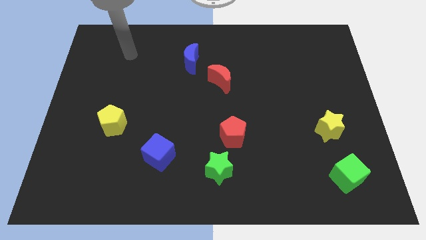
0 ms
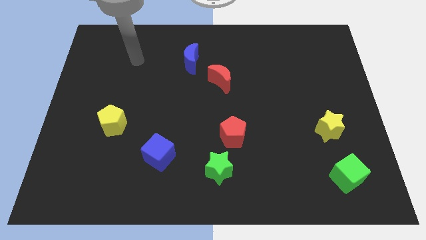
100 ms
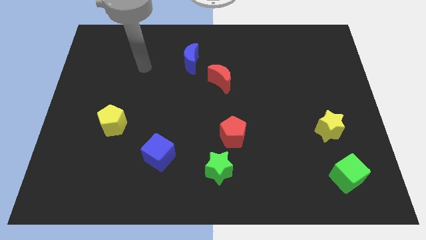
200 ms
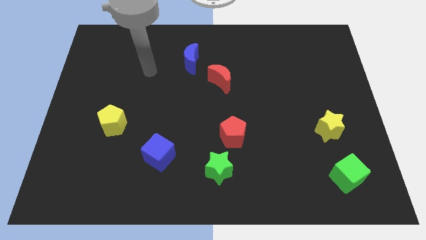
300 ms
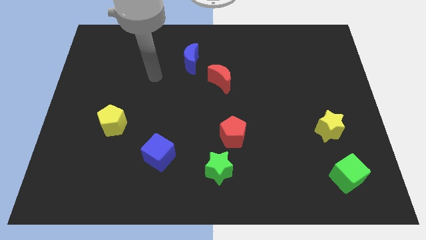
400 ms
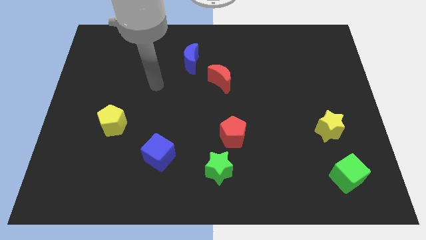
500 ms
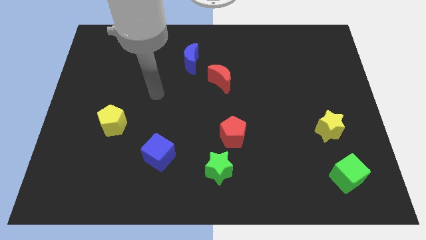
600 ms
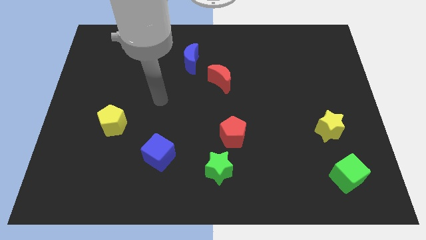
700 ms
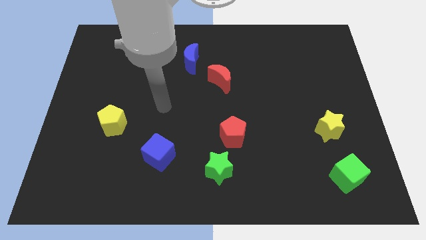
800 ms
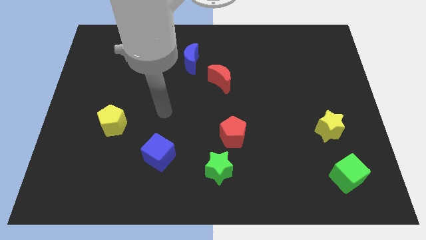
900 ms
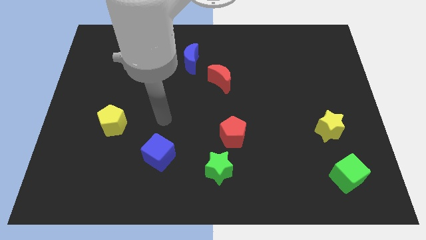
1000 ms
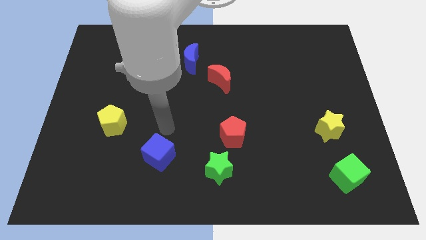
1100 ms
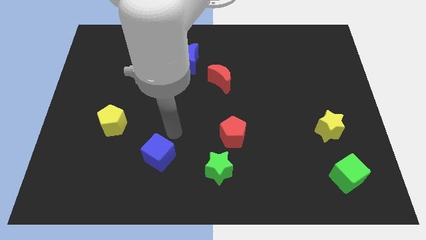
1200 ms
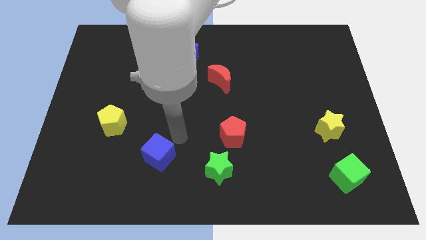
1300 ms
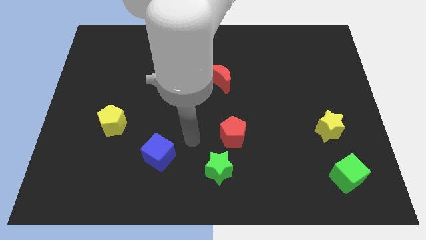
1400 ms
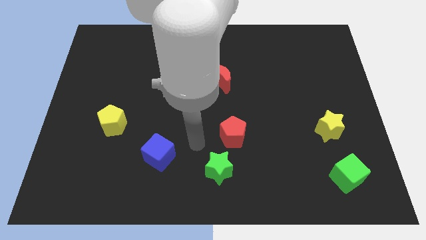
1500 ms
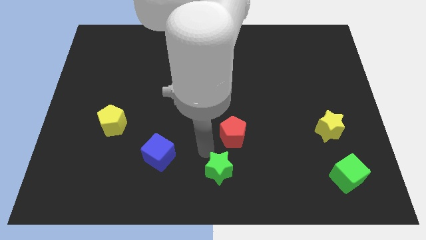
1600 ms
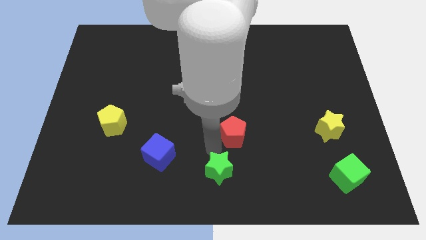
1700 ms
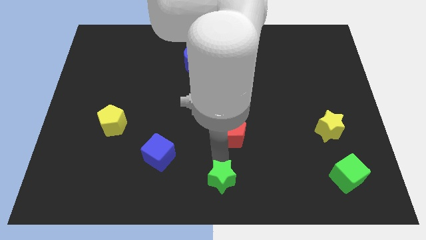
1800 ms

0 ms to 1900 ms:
move the red pentagon away from the green star

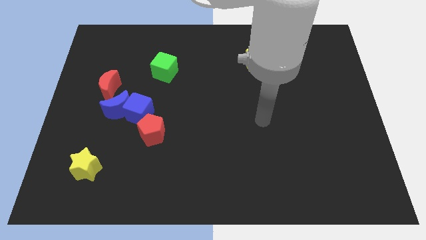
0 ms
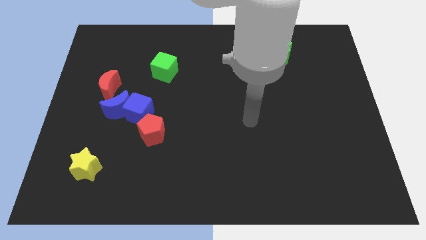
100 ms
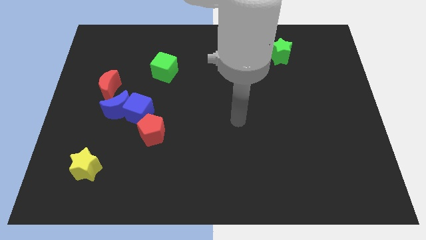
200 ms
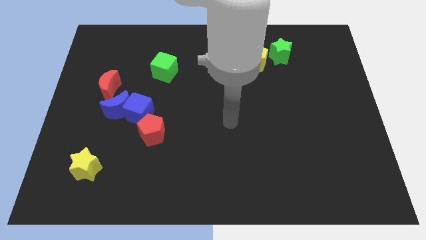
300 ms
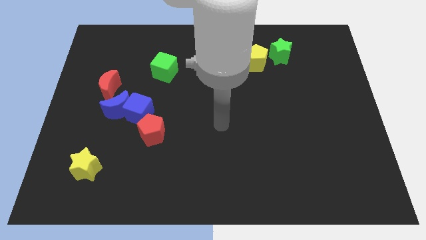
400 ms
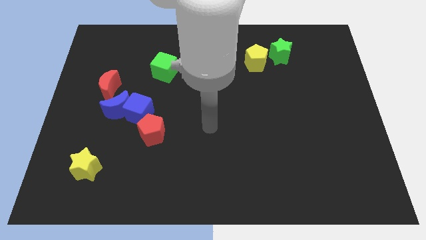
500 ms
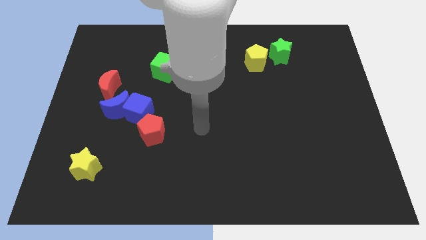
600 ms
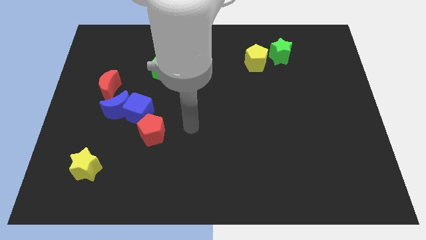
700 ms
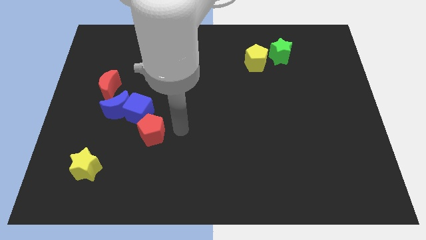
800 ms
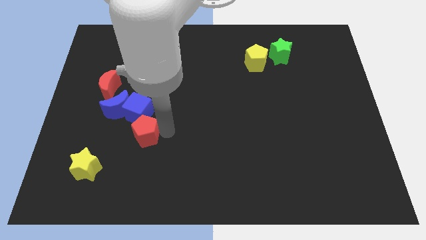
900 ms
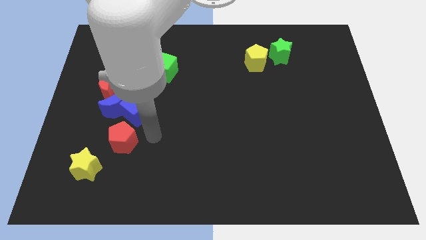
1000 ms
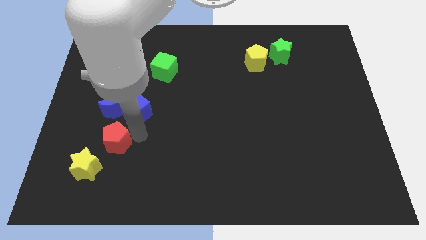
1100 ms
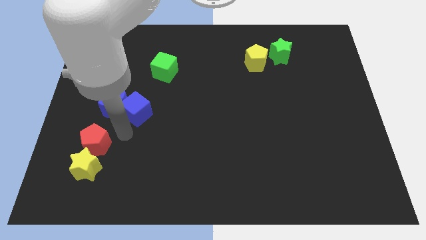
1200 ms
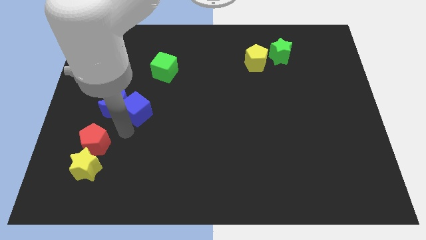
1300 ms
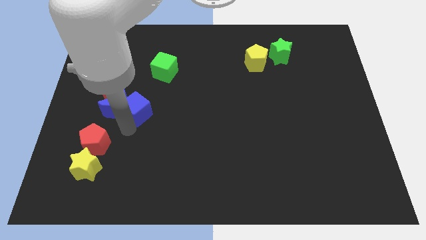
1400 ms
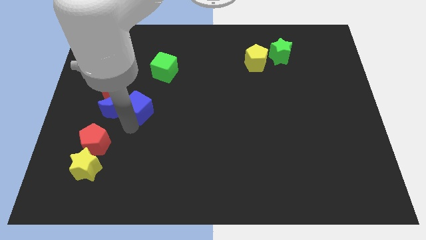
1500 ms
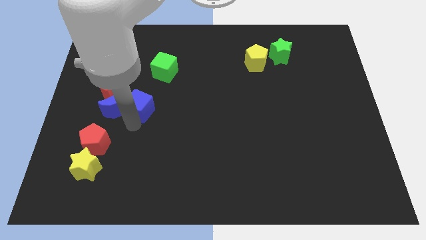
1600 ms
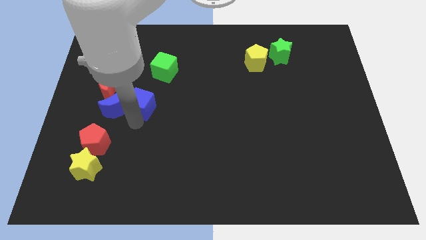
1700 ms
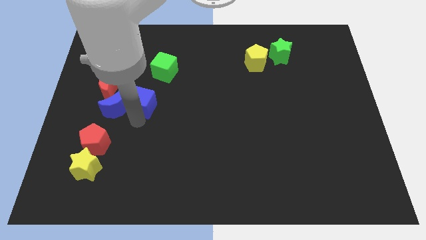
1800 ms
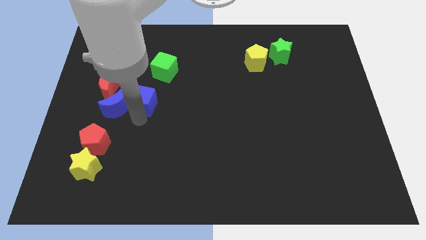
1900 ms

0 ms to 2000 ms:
separate the blue cube from the blue moon and red pentagon

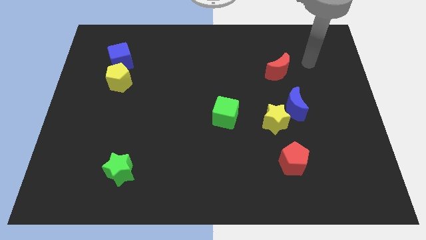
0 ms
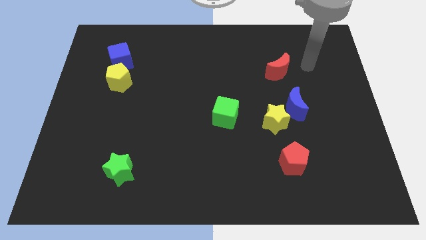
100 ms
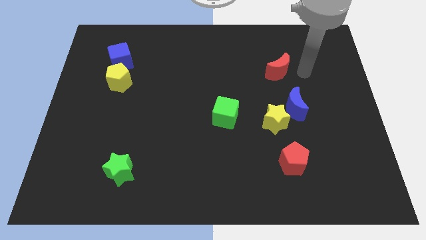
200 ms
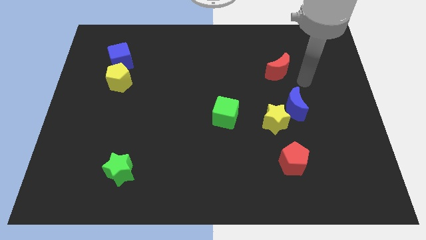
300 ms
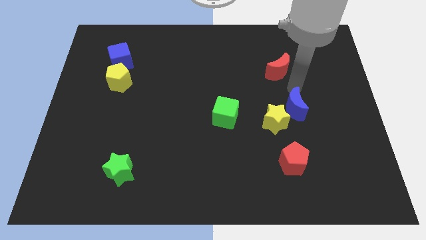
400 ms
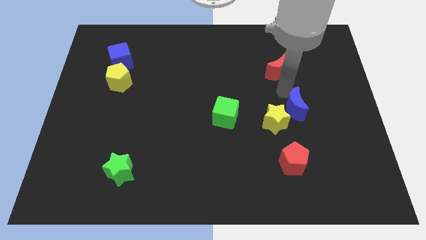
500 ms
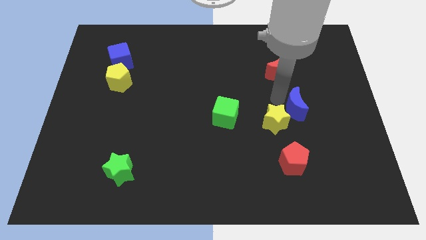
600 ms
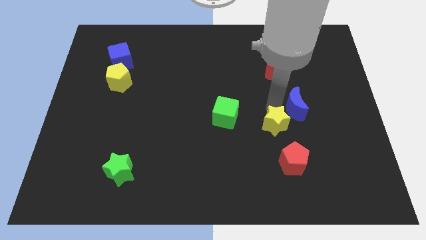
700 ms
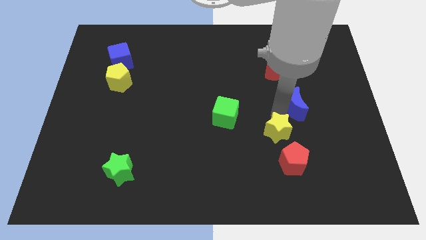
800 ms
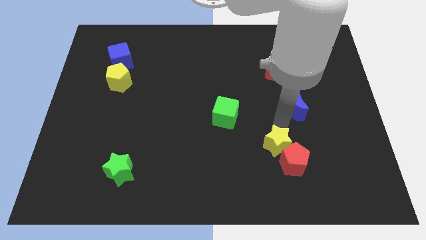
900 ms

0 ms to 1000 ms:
pull the blue moon apart from the yellow star

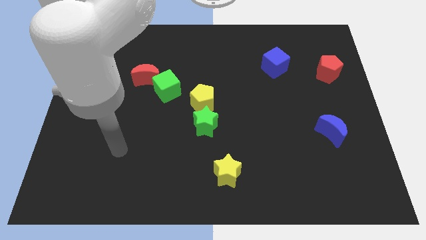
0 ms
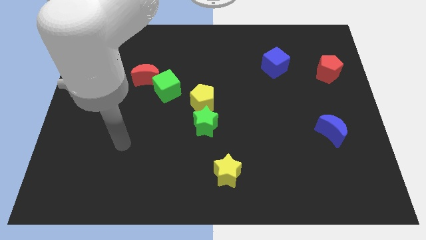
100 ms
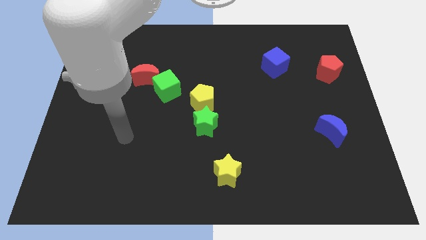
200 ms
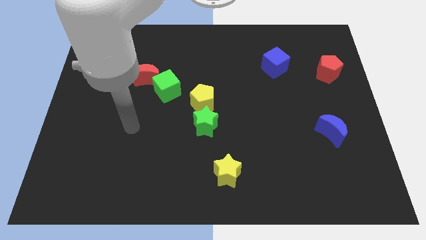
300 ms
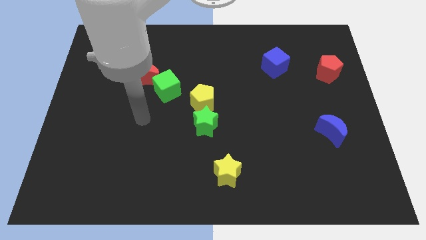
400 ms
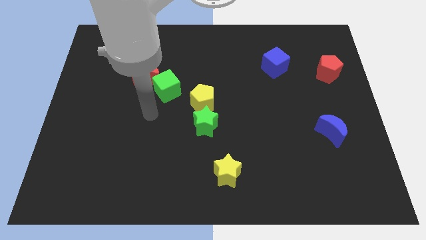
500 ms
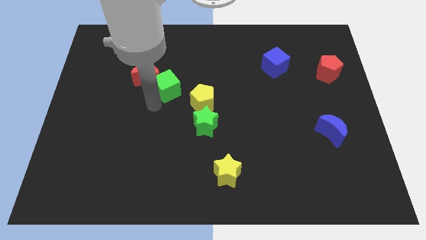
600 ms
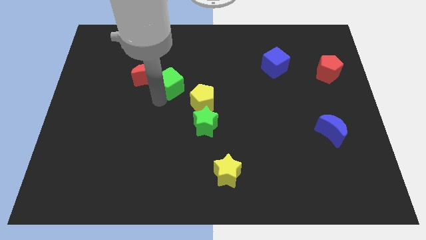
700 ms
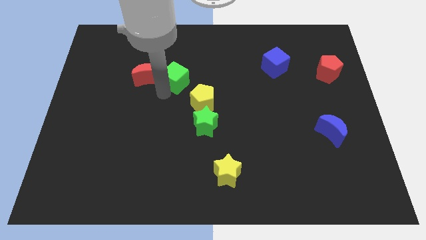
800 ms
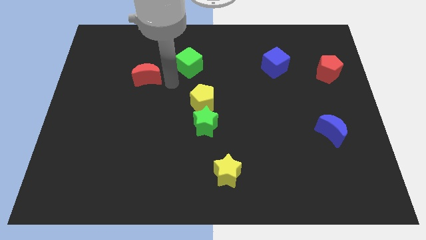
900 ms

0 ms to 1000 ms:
pull the red moon apart from the green cube

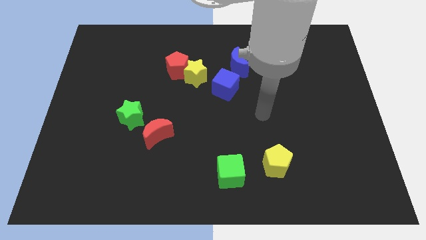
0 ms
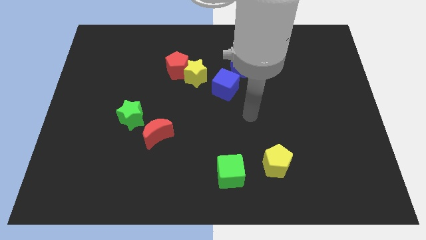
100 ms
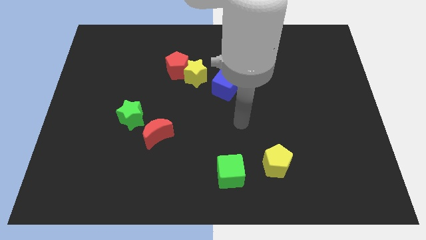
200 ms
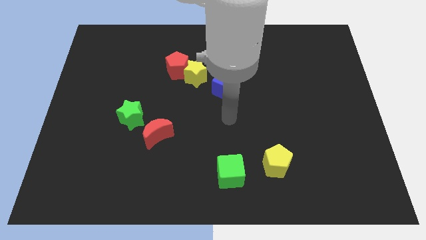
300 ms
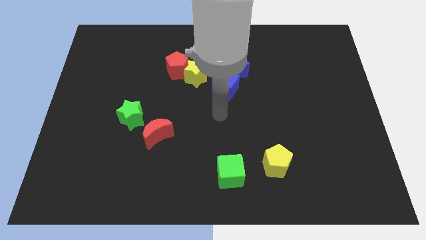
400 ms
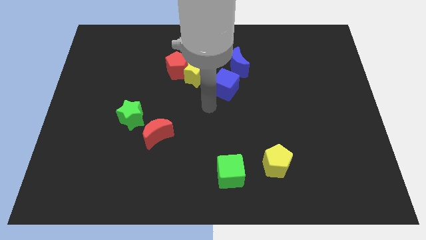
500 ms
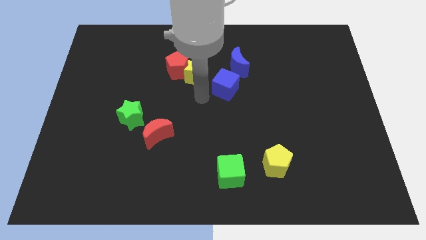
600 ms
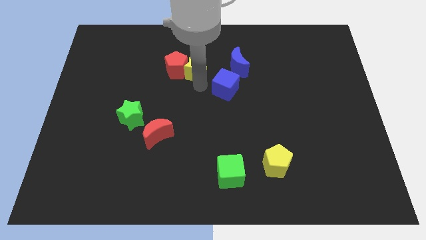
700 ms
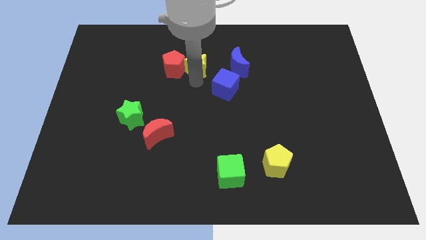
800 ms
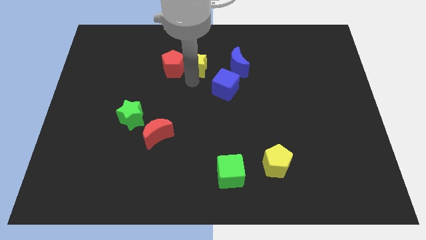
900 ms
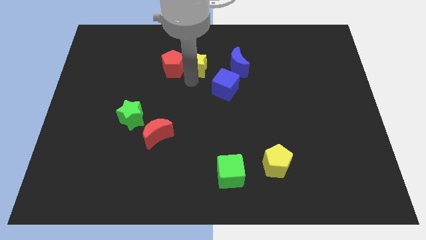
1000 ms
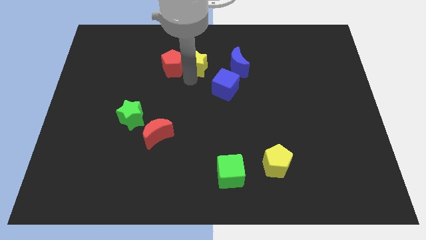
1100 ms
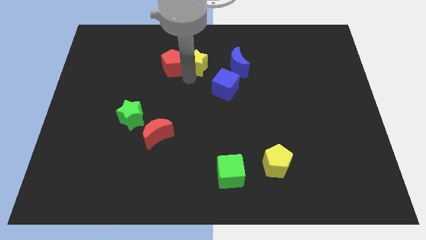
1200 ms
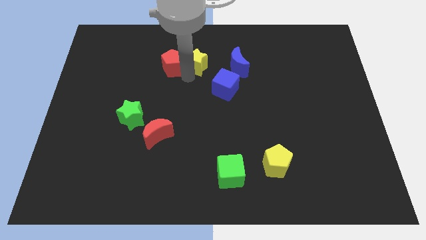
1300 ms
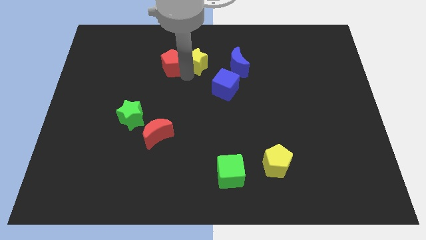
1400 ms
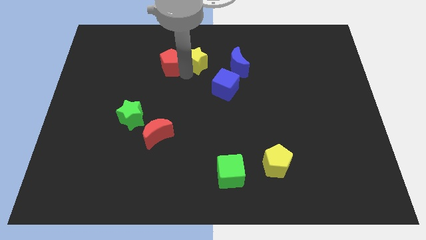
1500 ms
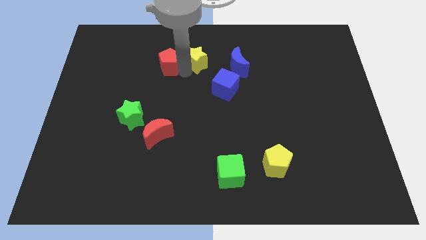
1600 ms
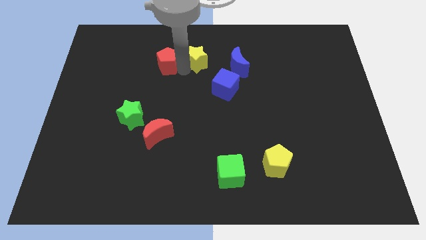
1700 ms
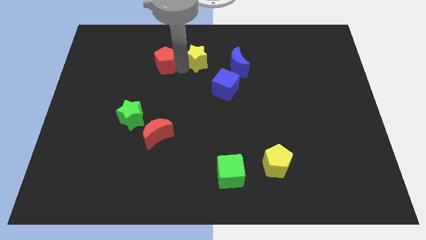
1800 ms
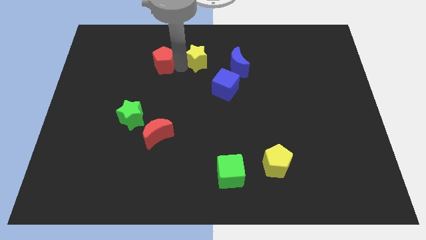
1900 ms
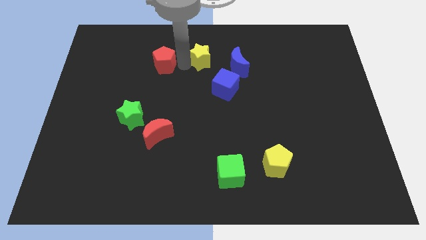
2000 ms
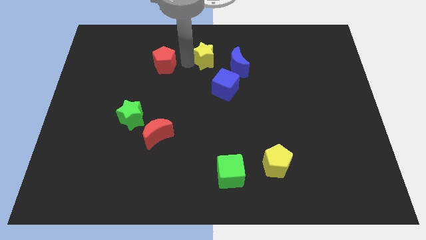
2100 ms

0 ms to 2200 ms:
move the red pentagon away from the yellow star

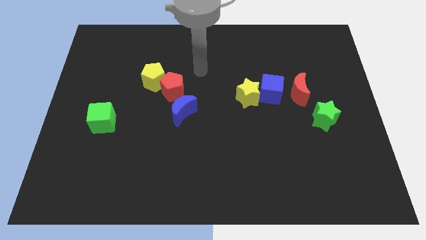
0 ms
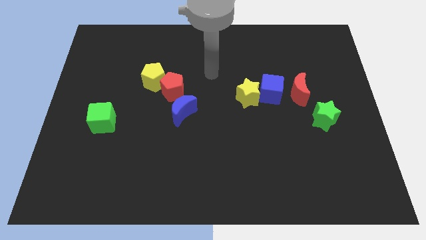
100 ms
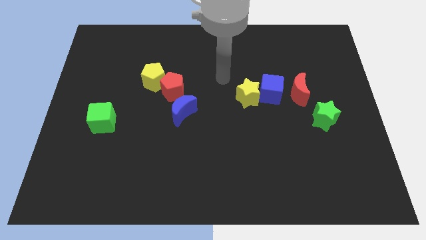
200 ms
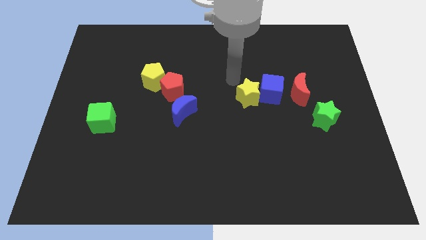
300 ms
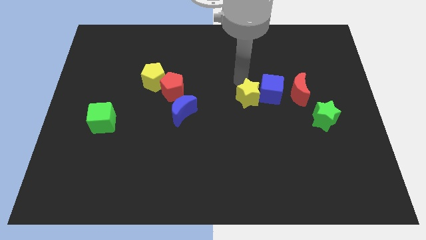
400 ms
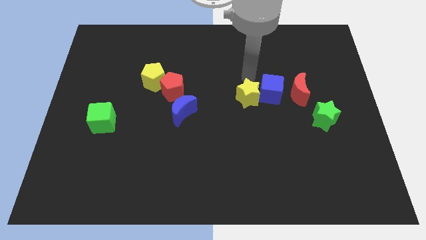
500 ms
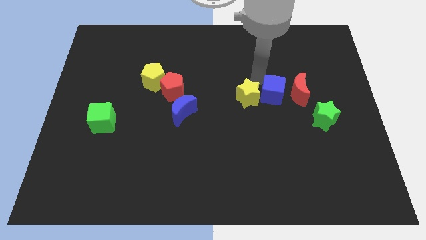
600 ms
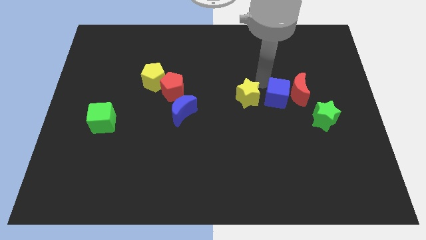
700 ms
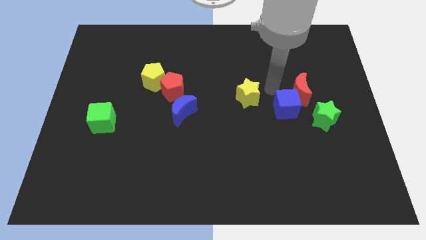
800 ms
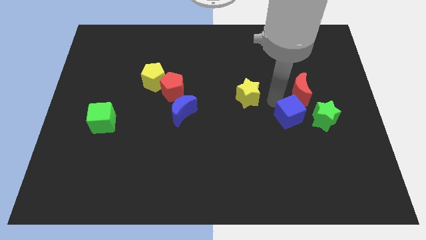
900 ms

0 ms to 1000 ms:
separate the yellow star from the blue cube
